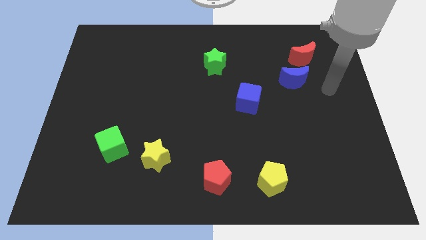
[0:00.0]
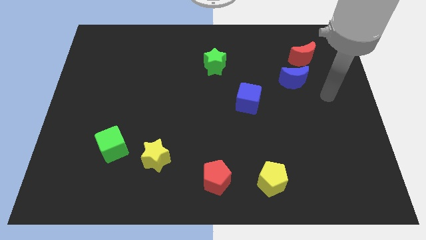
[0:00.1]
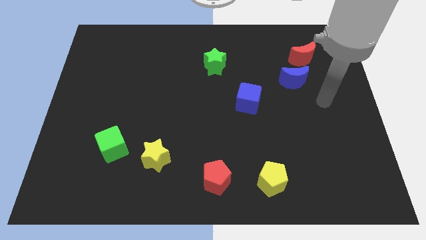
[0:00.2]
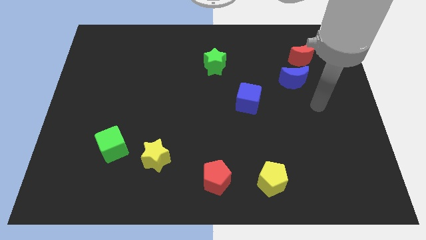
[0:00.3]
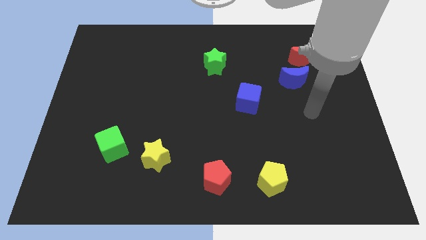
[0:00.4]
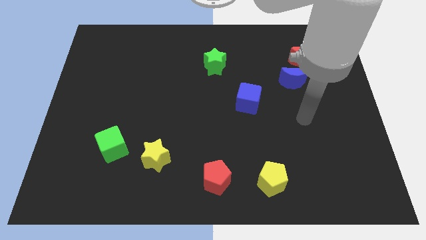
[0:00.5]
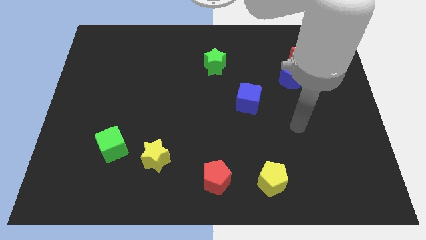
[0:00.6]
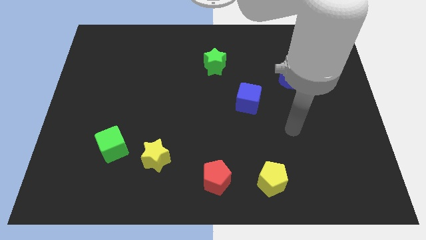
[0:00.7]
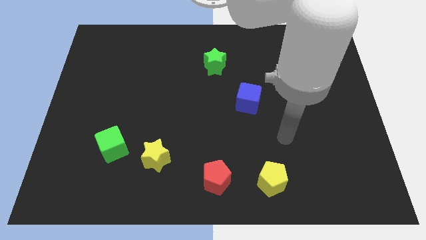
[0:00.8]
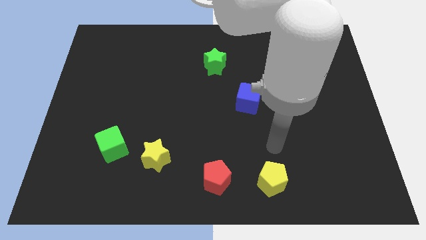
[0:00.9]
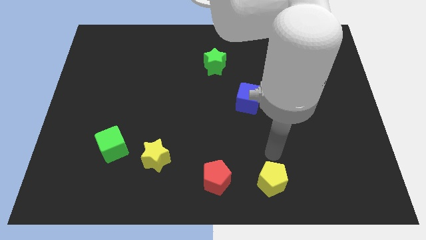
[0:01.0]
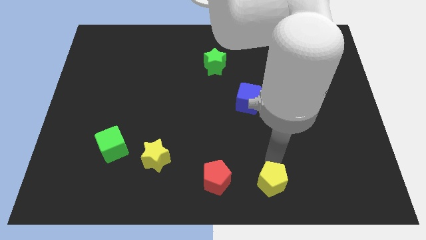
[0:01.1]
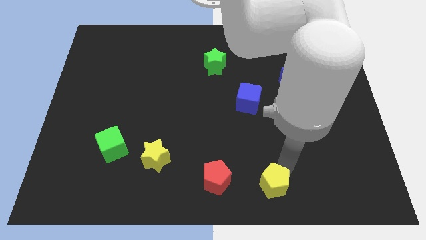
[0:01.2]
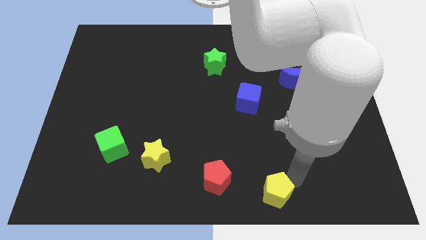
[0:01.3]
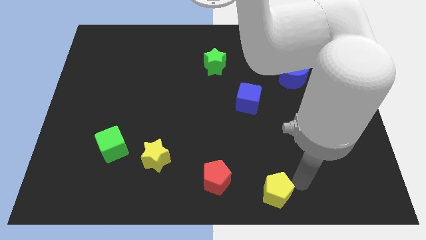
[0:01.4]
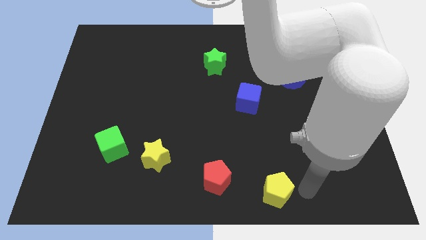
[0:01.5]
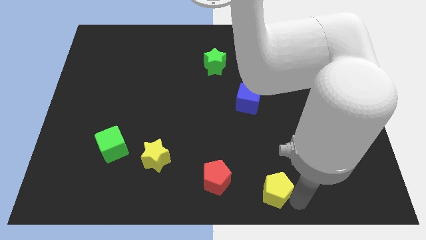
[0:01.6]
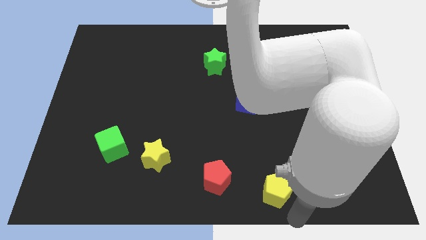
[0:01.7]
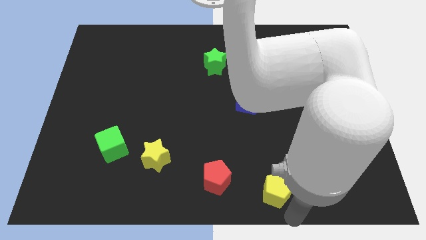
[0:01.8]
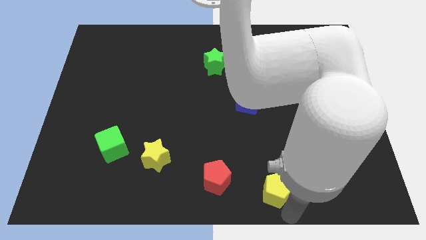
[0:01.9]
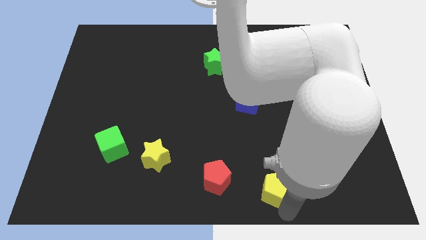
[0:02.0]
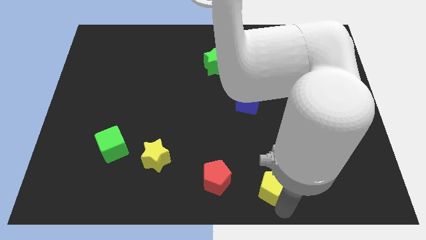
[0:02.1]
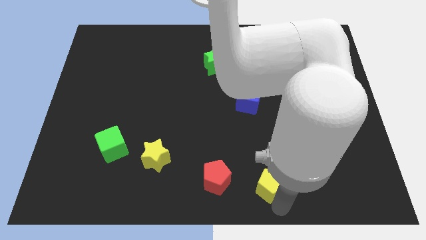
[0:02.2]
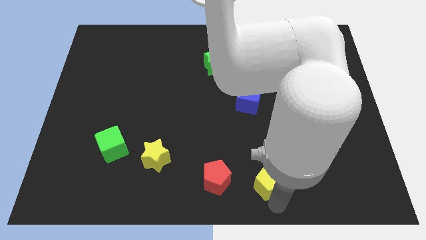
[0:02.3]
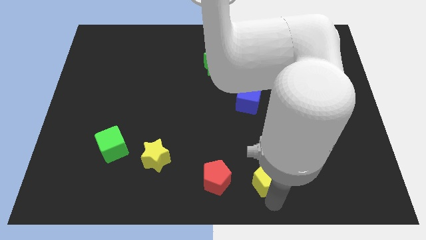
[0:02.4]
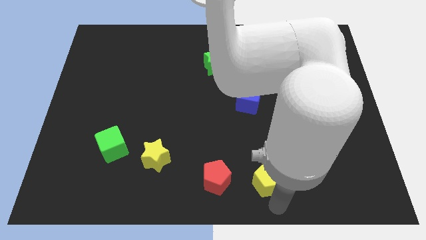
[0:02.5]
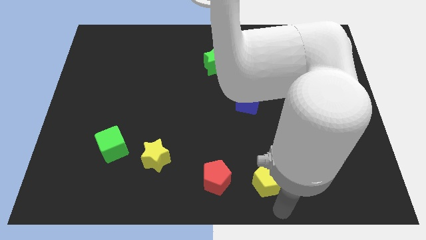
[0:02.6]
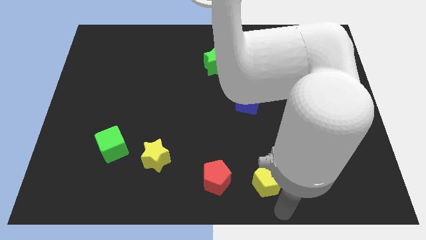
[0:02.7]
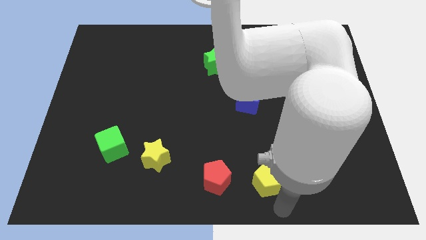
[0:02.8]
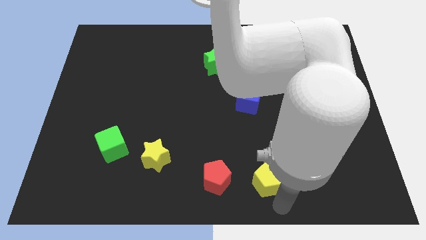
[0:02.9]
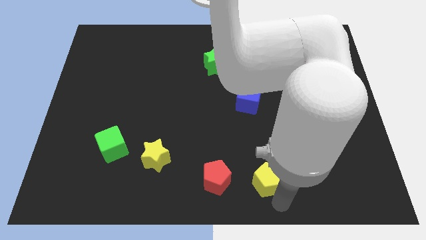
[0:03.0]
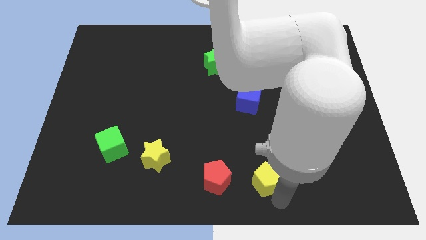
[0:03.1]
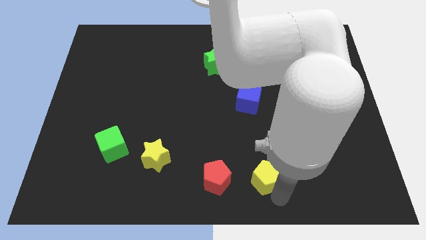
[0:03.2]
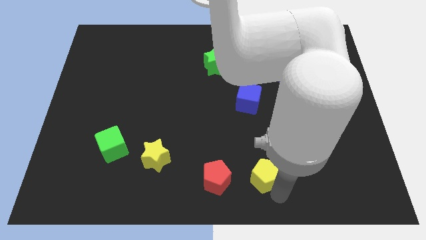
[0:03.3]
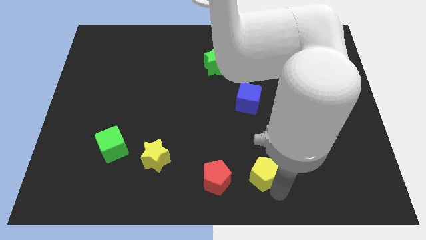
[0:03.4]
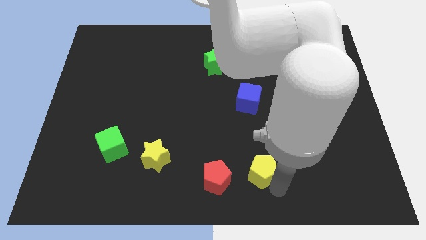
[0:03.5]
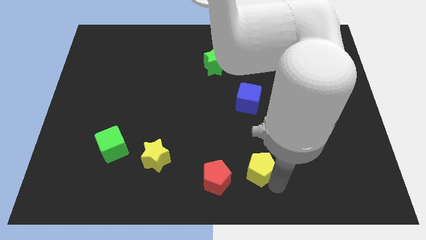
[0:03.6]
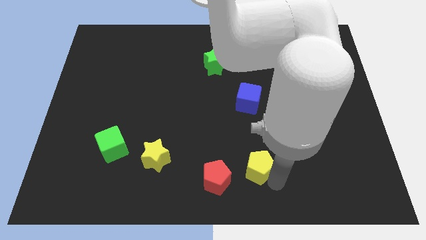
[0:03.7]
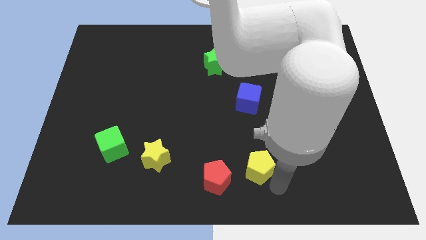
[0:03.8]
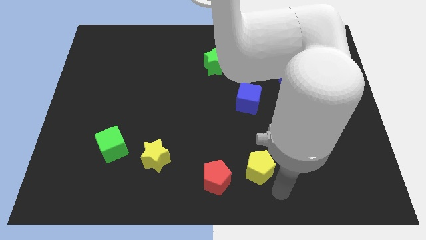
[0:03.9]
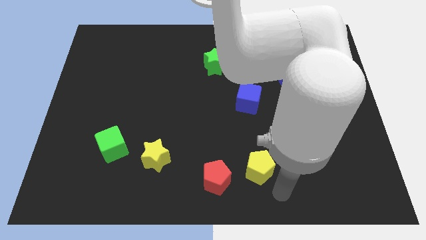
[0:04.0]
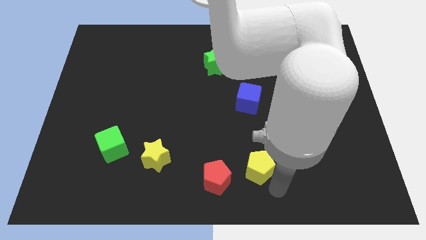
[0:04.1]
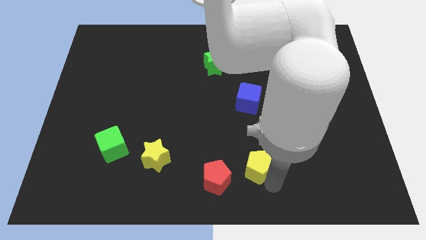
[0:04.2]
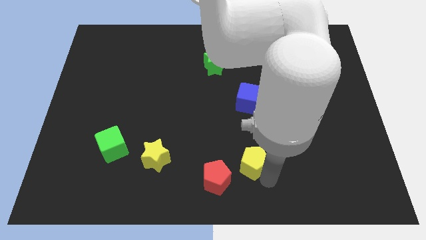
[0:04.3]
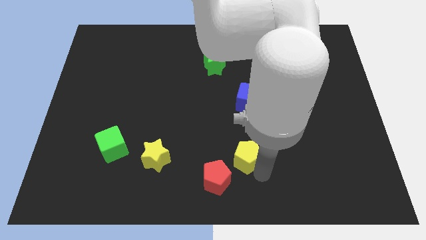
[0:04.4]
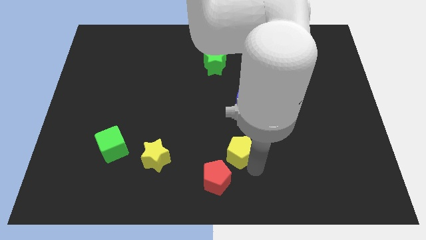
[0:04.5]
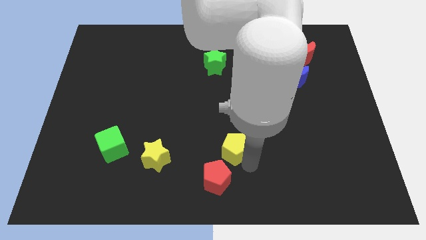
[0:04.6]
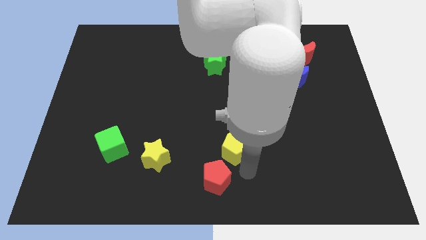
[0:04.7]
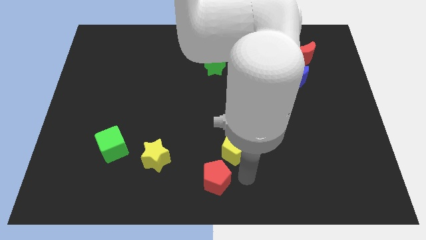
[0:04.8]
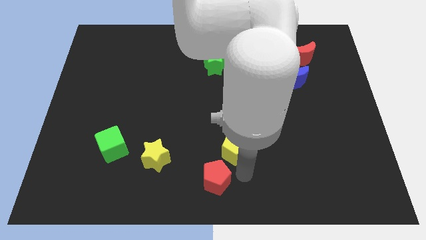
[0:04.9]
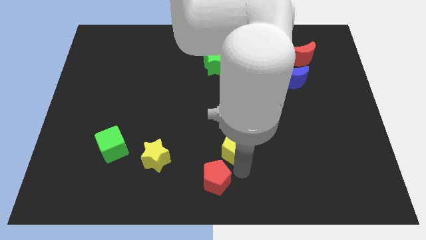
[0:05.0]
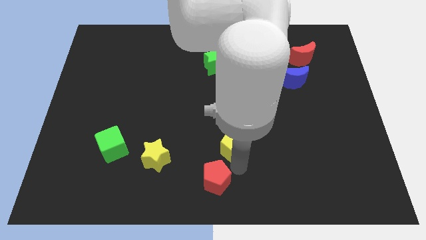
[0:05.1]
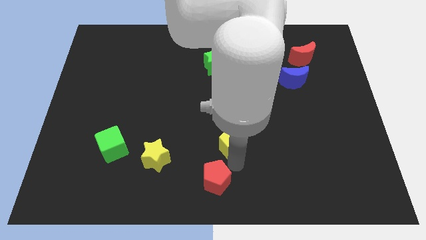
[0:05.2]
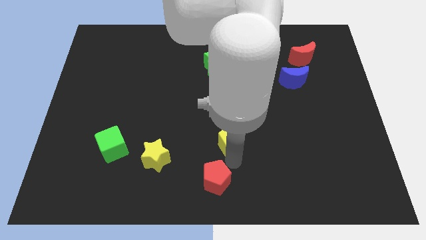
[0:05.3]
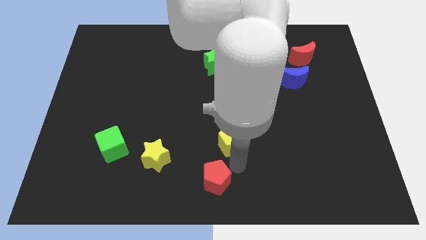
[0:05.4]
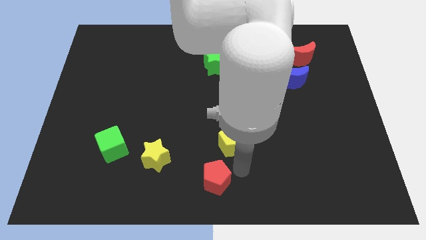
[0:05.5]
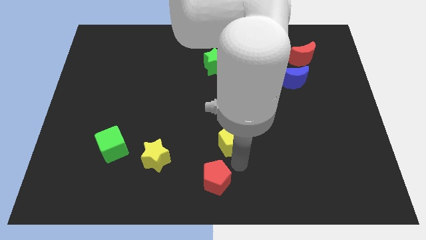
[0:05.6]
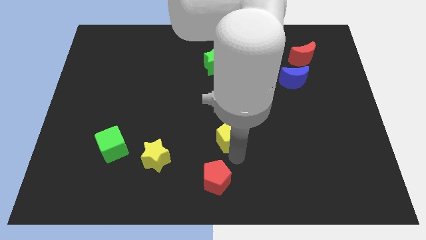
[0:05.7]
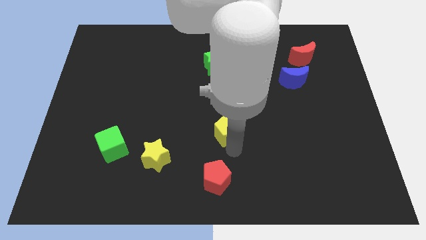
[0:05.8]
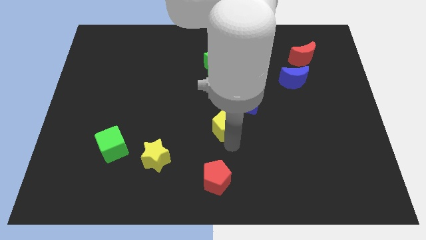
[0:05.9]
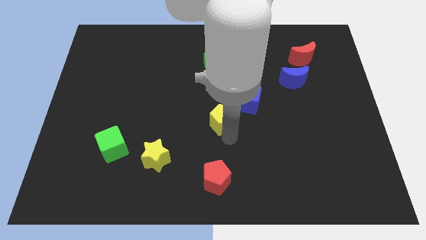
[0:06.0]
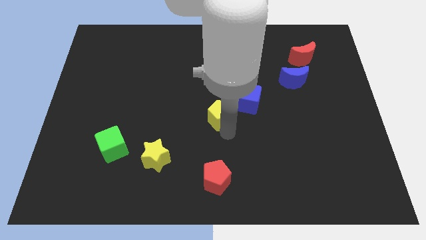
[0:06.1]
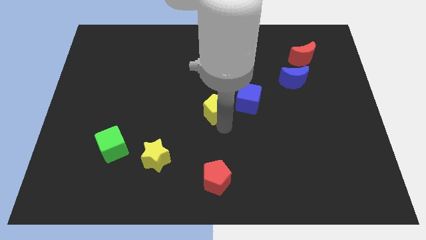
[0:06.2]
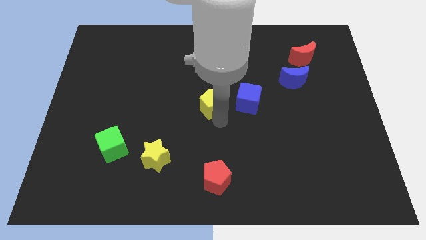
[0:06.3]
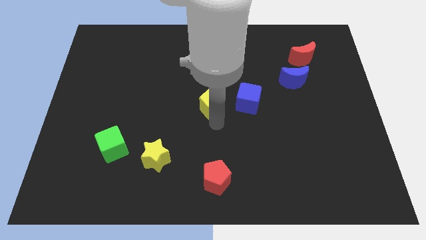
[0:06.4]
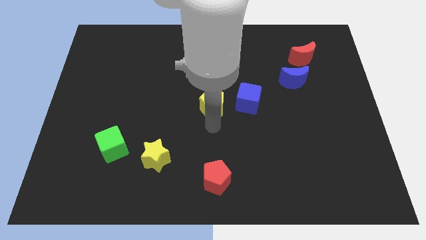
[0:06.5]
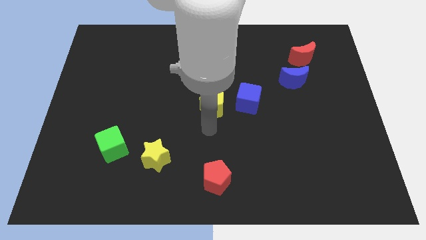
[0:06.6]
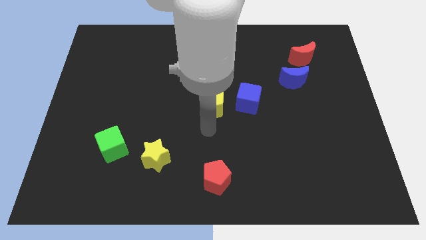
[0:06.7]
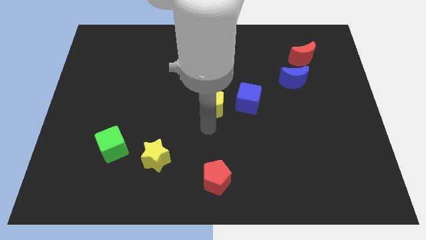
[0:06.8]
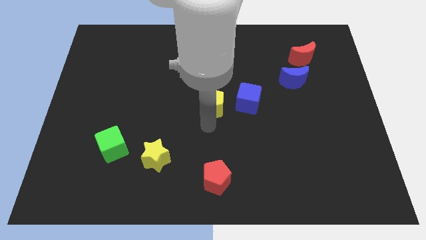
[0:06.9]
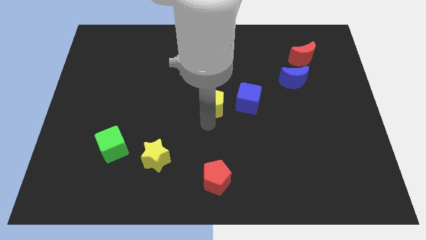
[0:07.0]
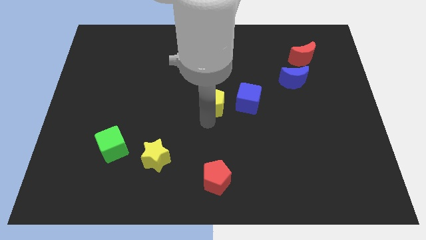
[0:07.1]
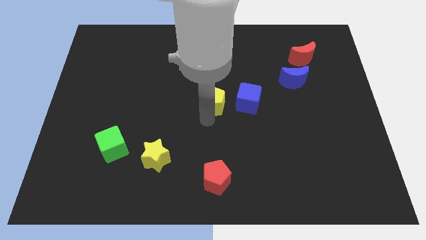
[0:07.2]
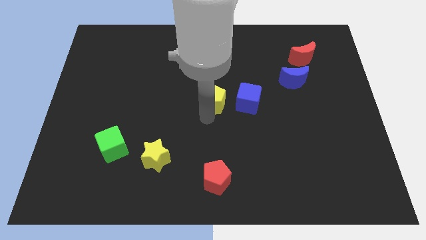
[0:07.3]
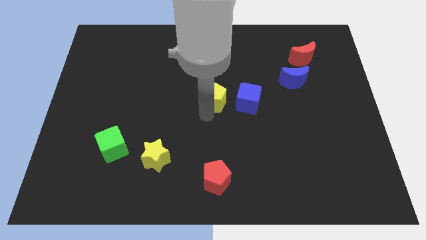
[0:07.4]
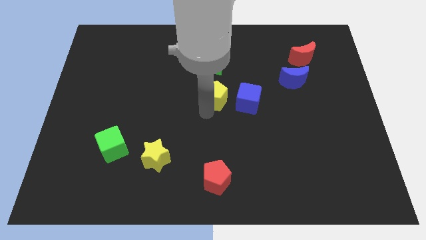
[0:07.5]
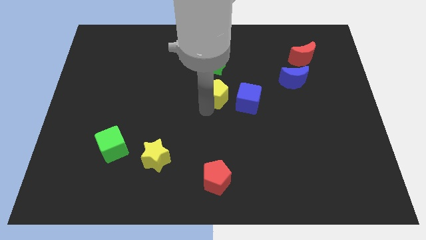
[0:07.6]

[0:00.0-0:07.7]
put the yellow pentagon to the top left of the blue cube
